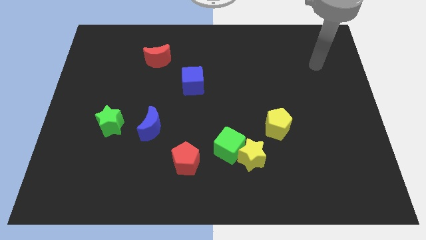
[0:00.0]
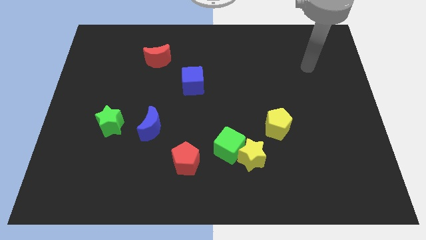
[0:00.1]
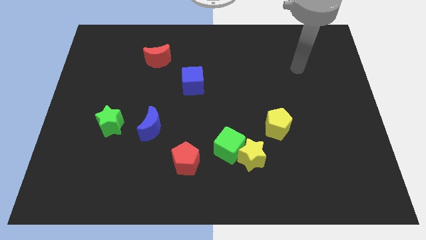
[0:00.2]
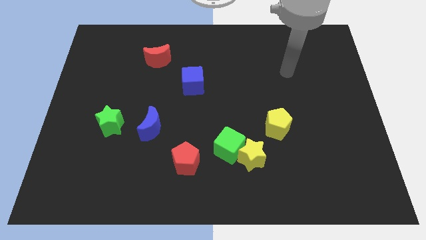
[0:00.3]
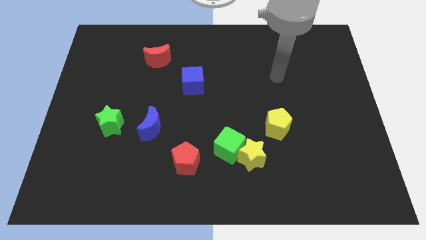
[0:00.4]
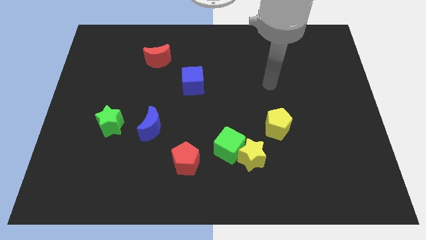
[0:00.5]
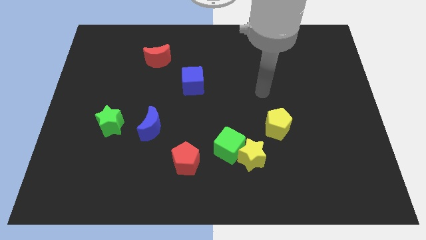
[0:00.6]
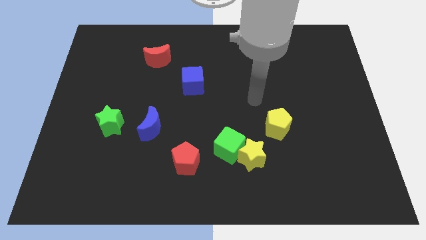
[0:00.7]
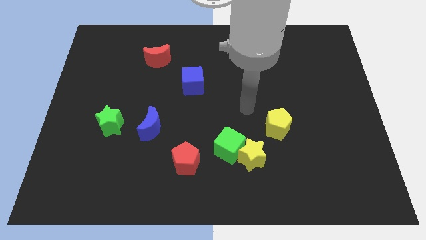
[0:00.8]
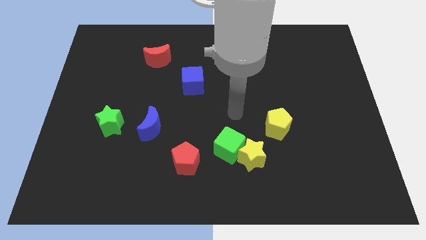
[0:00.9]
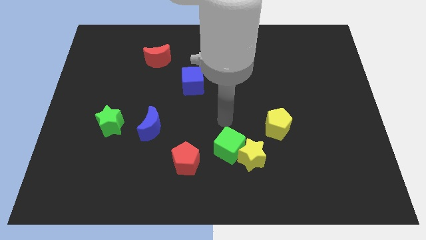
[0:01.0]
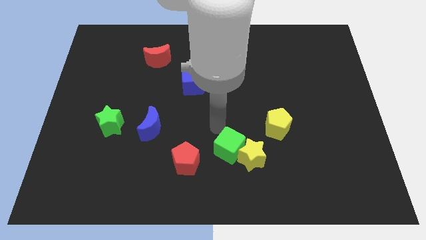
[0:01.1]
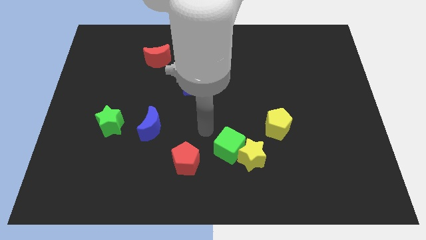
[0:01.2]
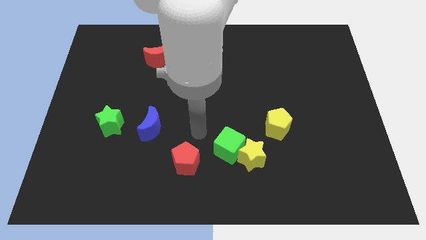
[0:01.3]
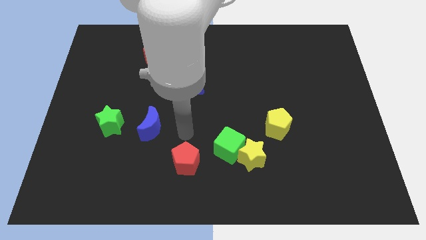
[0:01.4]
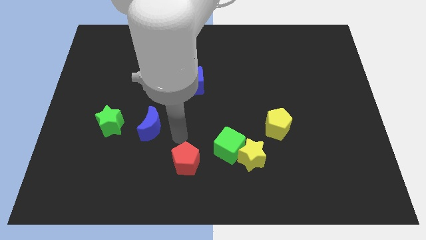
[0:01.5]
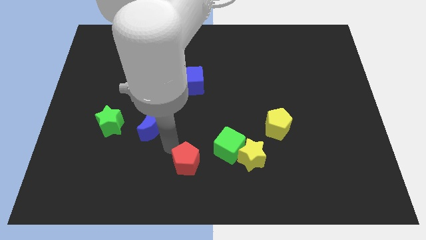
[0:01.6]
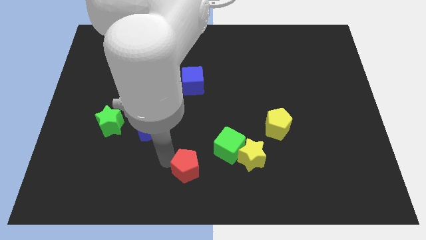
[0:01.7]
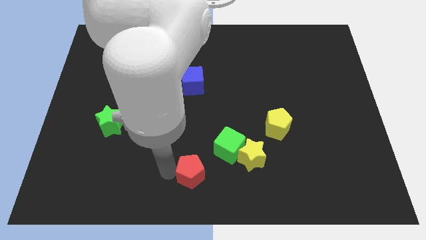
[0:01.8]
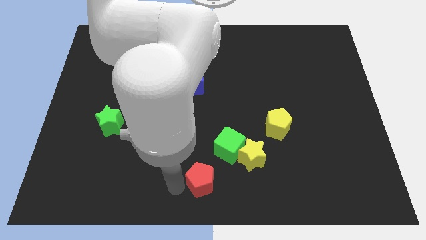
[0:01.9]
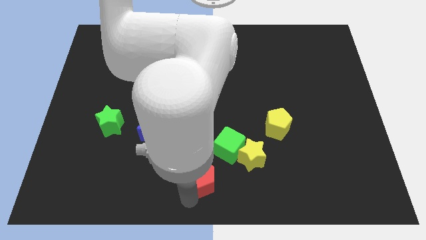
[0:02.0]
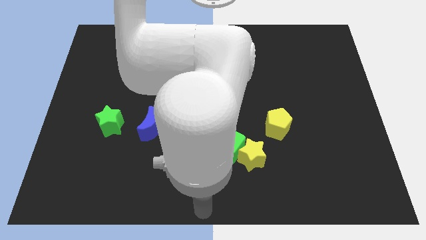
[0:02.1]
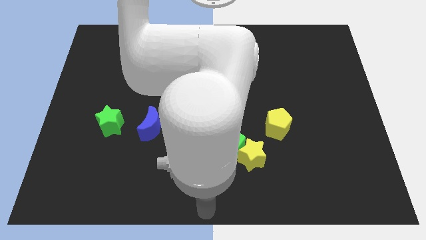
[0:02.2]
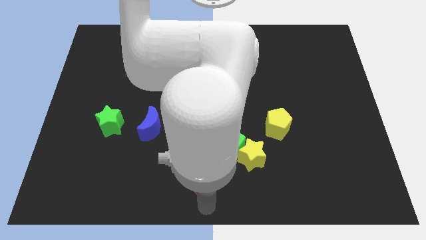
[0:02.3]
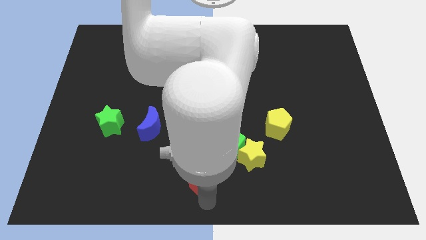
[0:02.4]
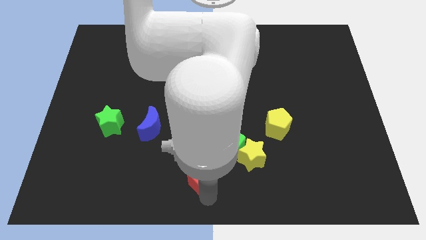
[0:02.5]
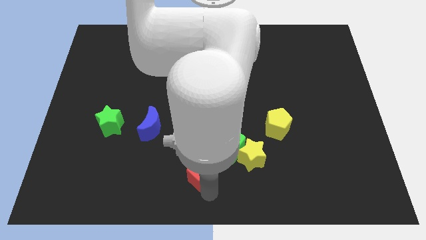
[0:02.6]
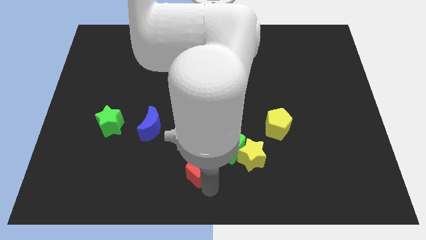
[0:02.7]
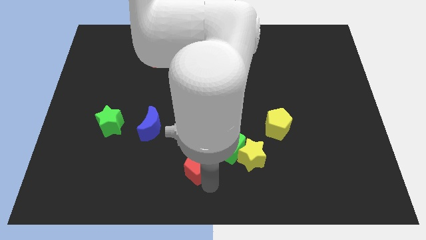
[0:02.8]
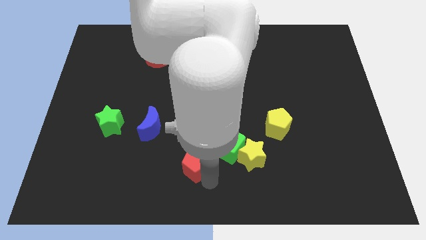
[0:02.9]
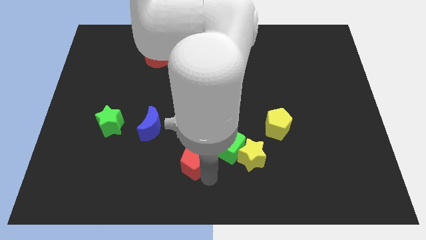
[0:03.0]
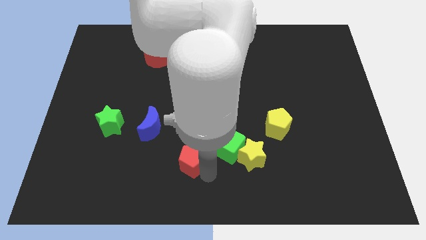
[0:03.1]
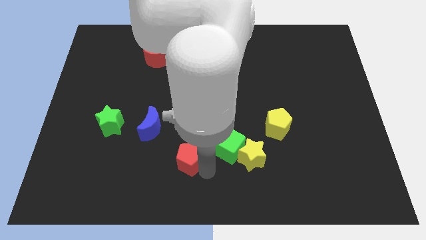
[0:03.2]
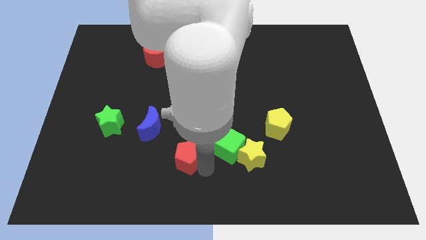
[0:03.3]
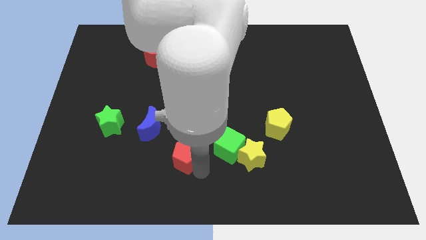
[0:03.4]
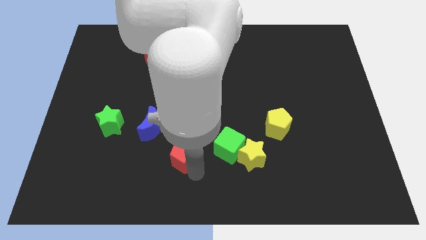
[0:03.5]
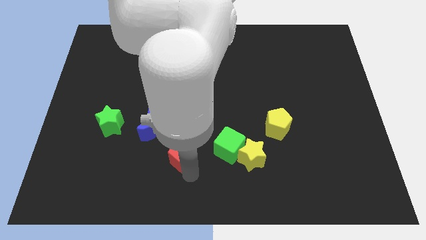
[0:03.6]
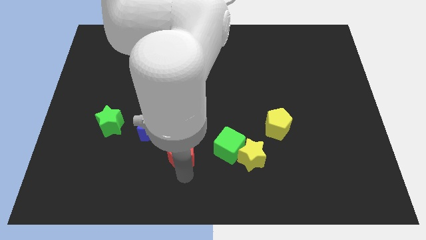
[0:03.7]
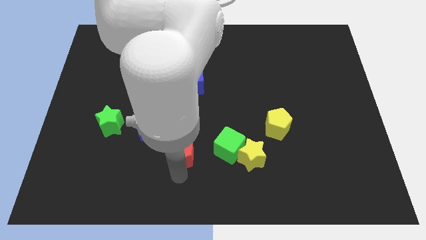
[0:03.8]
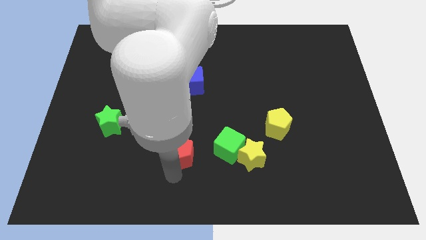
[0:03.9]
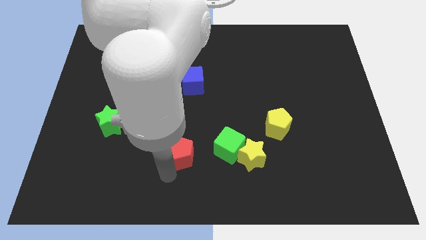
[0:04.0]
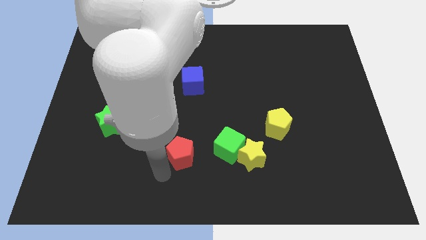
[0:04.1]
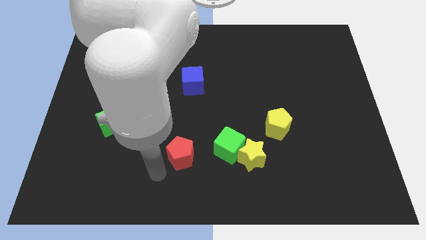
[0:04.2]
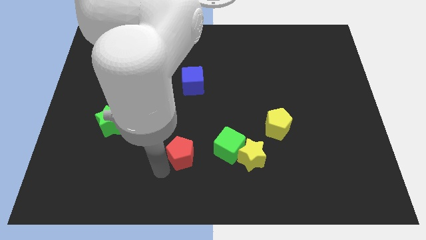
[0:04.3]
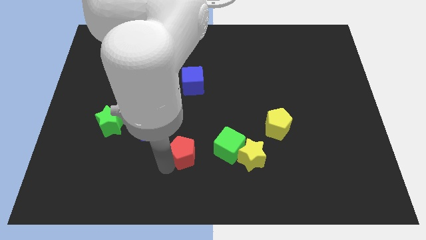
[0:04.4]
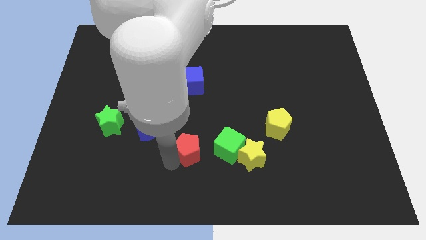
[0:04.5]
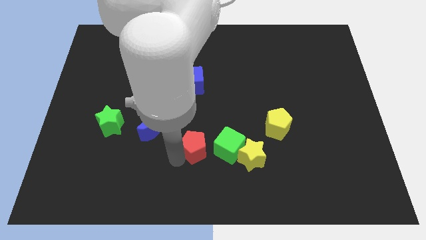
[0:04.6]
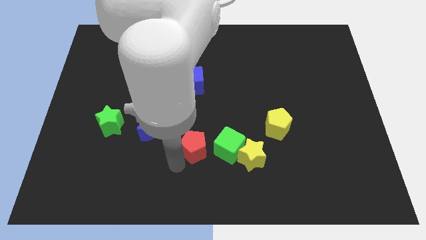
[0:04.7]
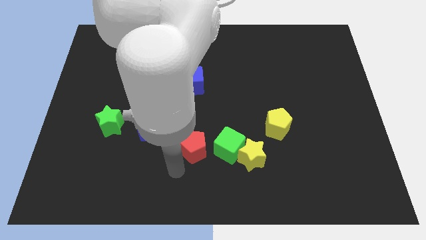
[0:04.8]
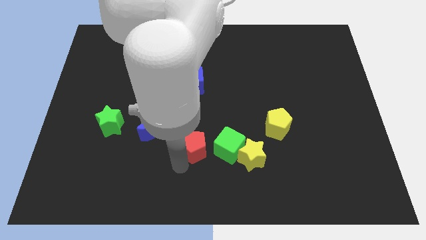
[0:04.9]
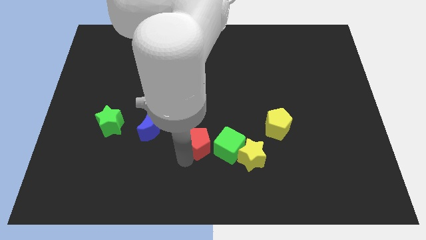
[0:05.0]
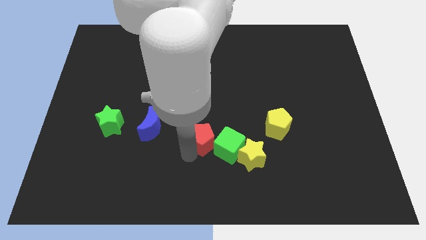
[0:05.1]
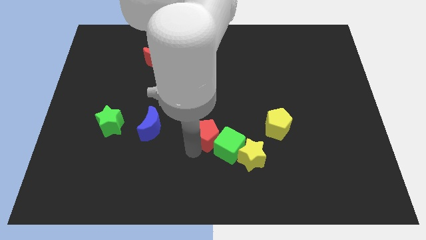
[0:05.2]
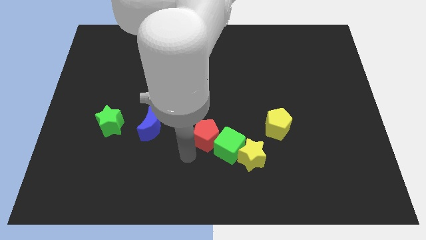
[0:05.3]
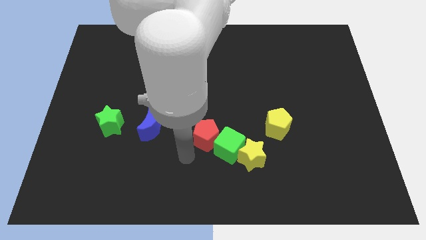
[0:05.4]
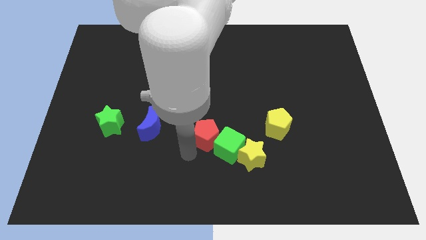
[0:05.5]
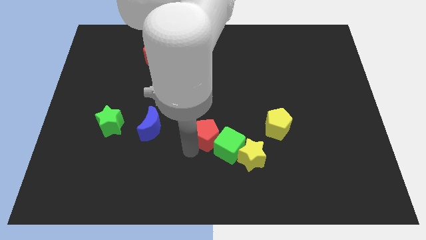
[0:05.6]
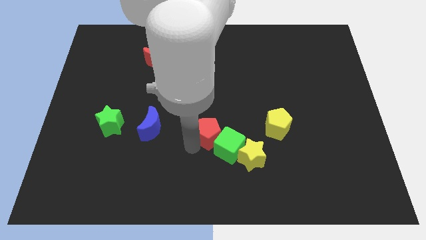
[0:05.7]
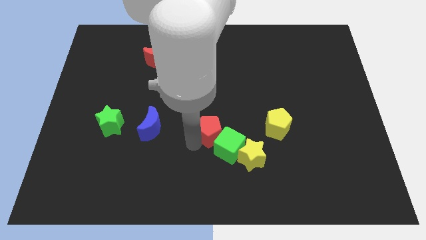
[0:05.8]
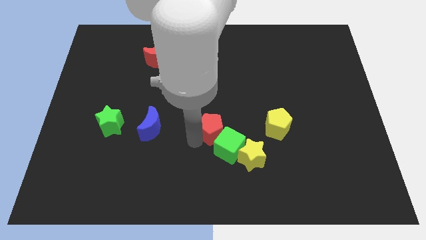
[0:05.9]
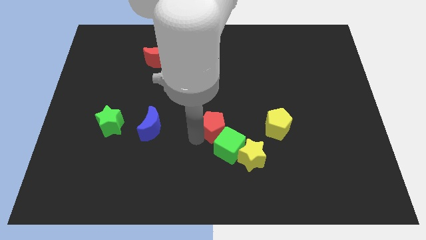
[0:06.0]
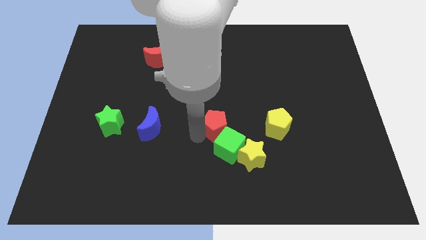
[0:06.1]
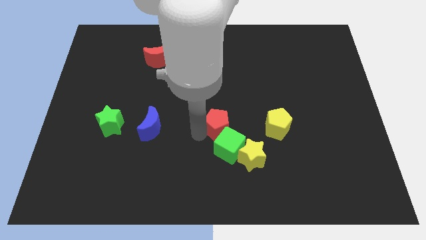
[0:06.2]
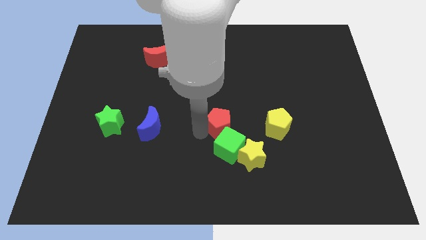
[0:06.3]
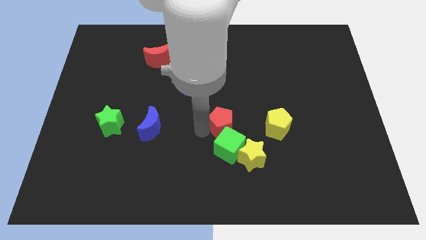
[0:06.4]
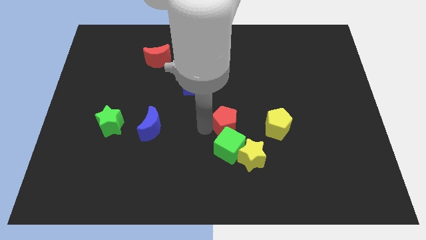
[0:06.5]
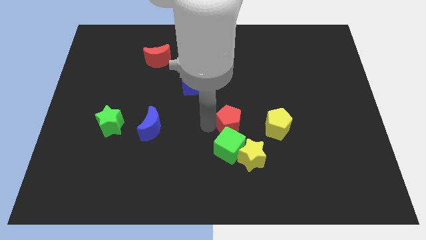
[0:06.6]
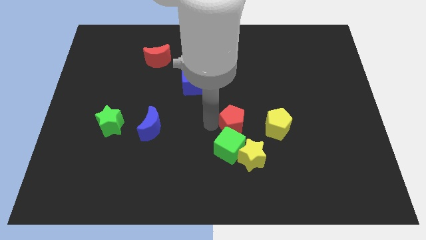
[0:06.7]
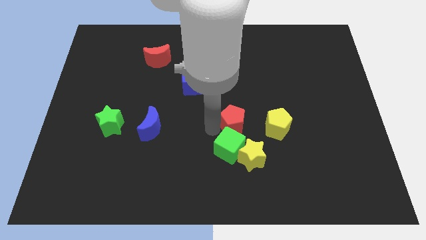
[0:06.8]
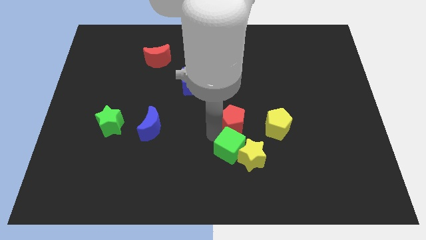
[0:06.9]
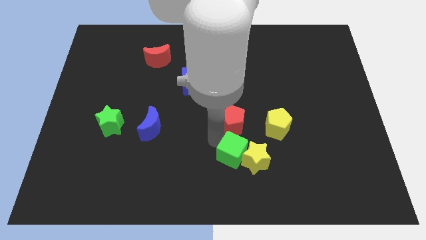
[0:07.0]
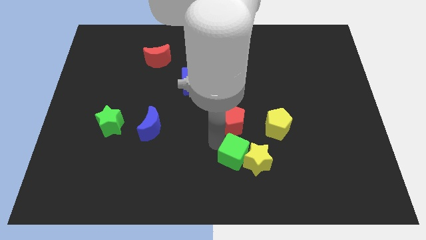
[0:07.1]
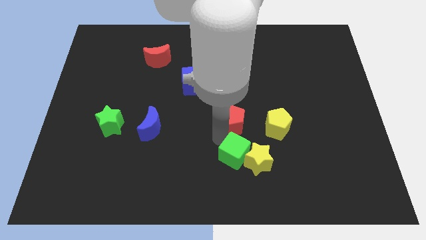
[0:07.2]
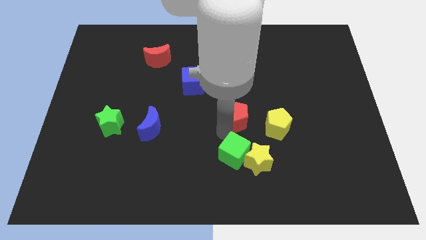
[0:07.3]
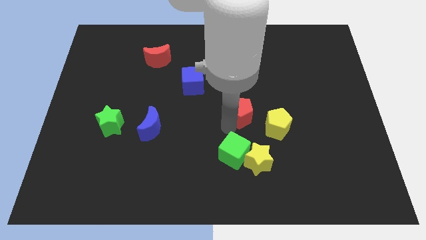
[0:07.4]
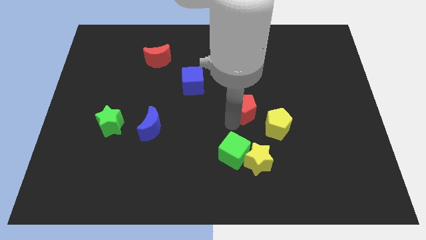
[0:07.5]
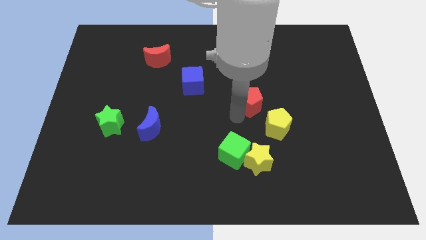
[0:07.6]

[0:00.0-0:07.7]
move the red pentagon diagonally up and right

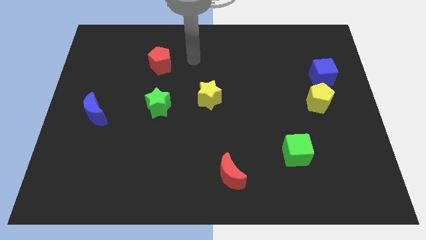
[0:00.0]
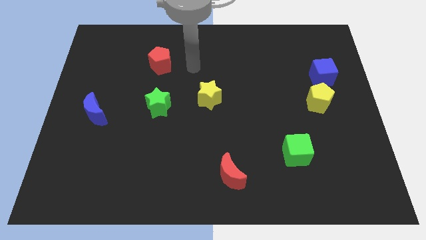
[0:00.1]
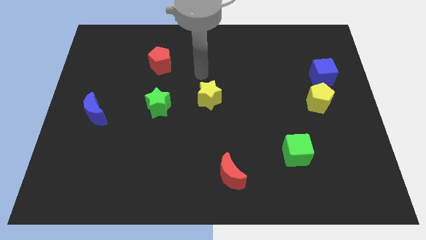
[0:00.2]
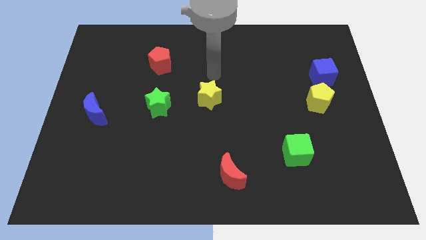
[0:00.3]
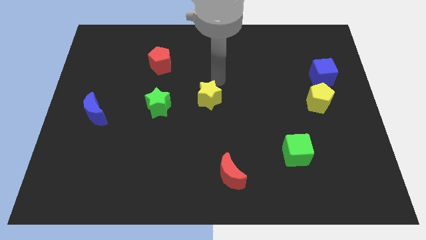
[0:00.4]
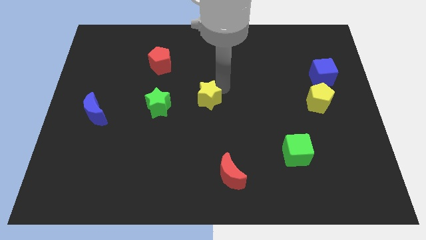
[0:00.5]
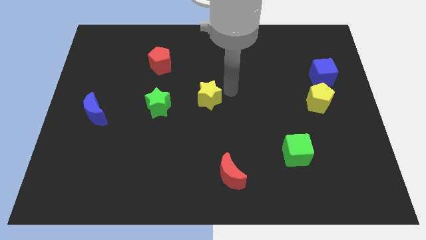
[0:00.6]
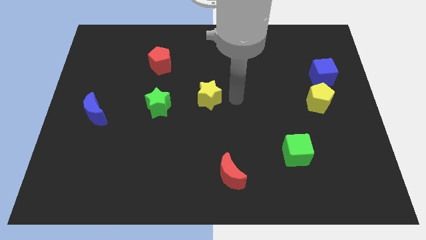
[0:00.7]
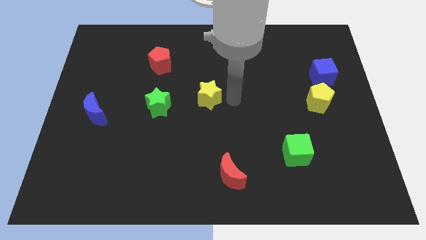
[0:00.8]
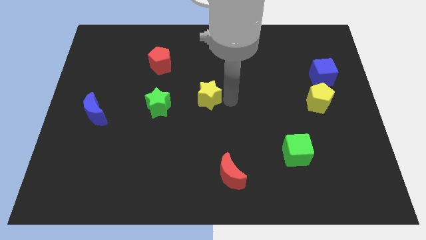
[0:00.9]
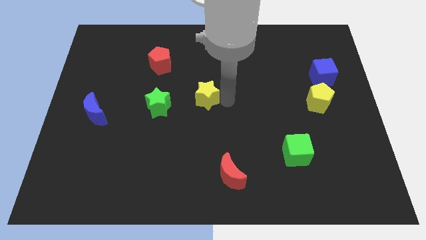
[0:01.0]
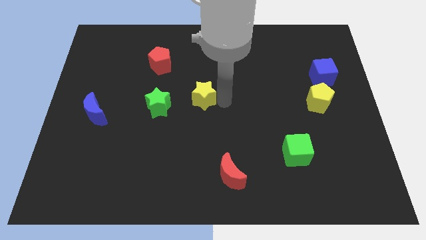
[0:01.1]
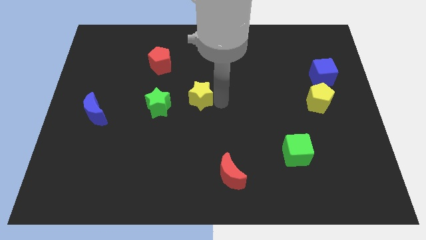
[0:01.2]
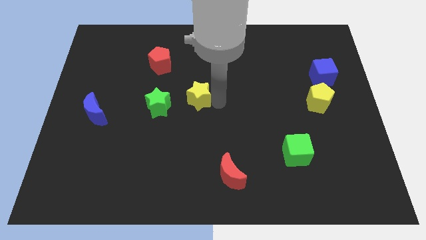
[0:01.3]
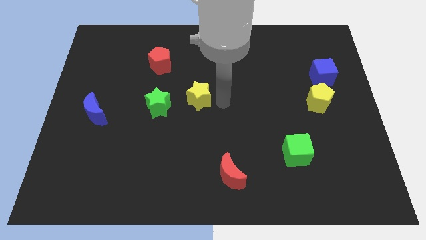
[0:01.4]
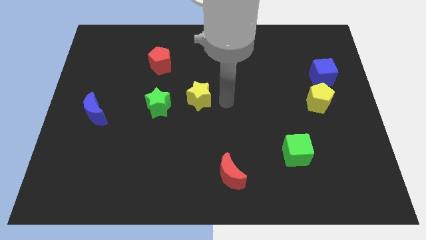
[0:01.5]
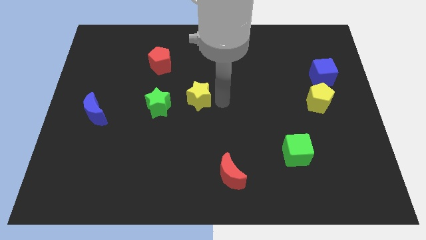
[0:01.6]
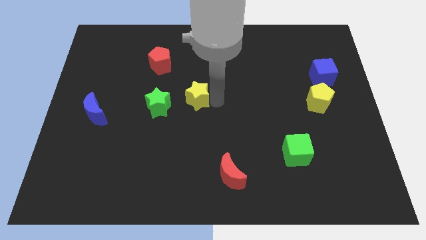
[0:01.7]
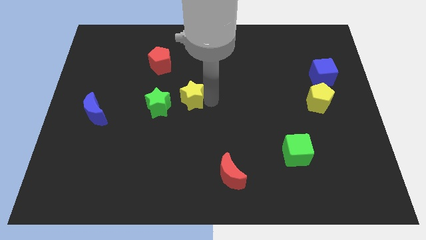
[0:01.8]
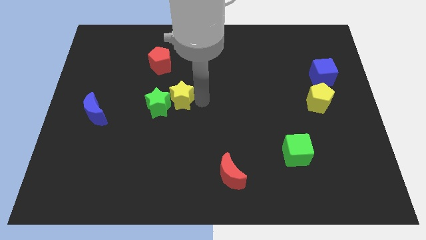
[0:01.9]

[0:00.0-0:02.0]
move the yellow star a bit to the left
